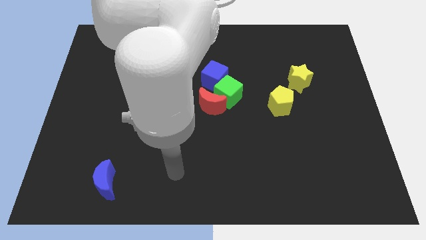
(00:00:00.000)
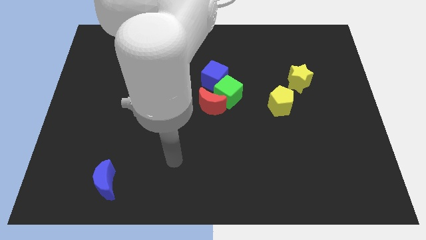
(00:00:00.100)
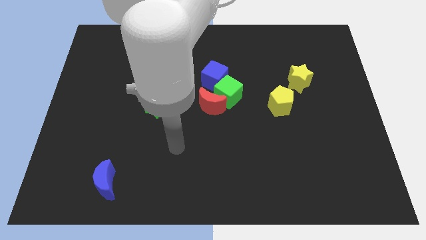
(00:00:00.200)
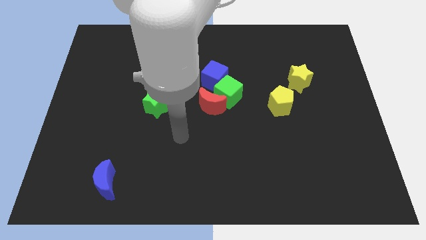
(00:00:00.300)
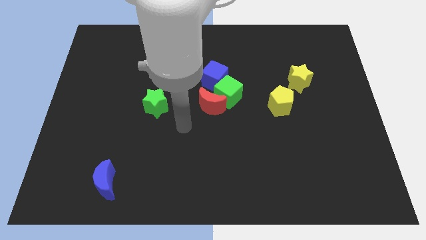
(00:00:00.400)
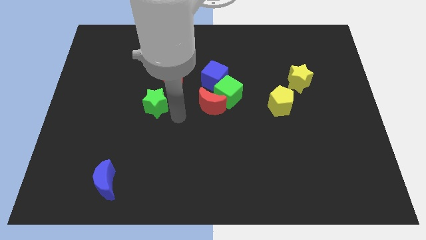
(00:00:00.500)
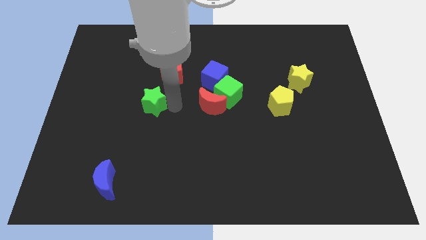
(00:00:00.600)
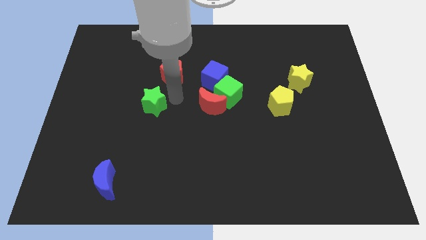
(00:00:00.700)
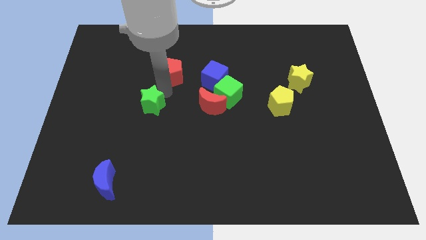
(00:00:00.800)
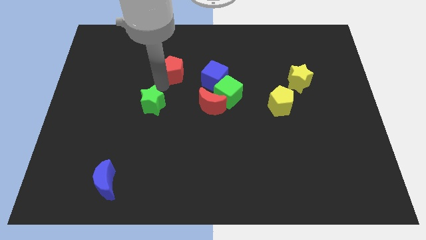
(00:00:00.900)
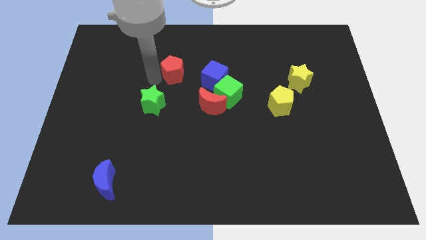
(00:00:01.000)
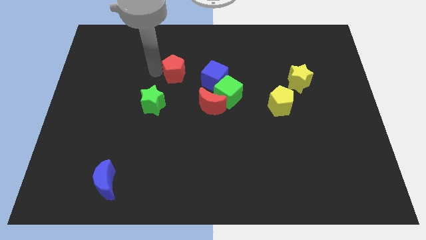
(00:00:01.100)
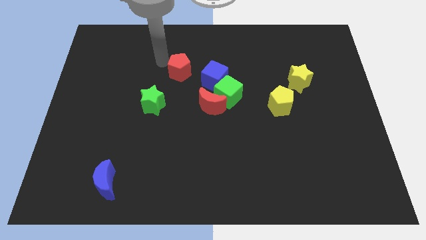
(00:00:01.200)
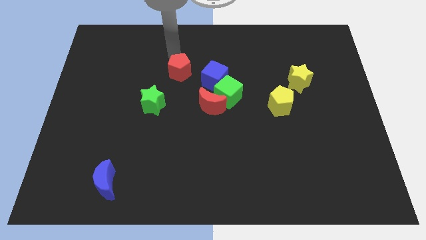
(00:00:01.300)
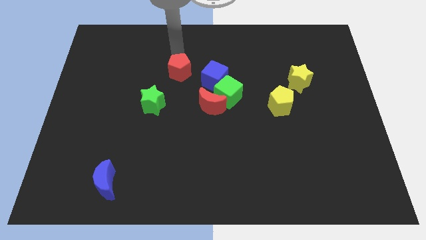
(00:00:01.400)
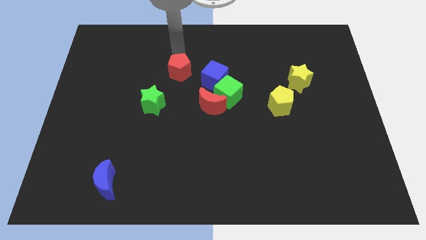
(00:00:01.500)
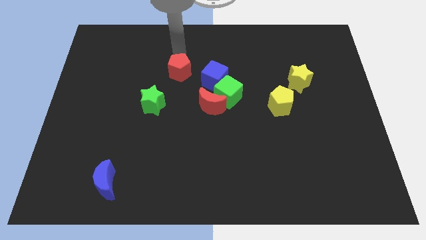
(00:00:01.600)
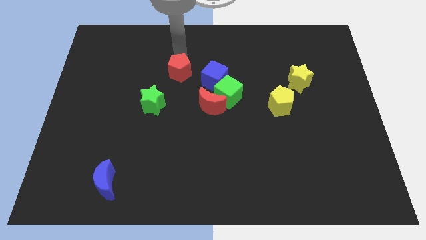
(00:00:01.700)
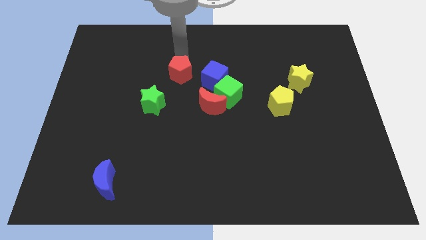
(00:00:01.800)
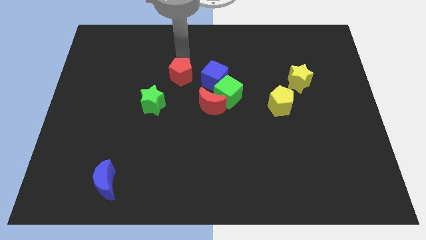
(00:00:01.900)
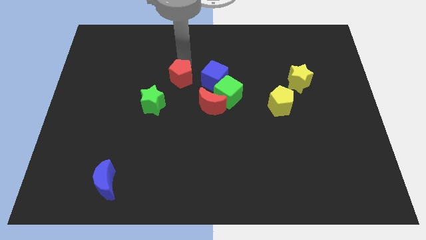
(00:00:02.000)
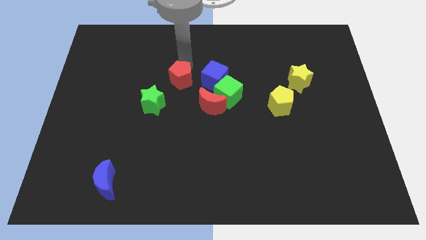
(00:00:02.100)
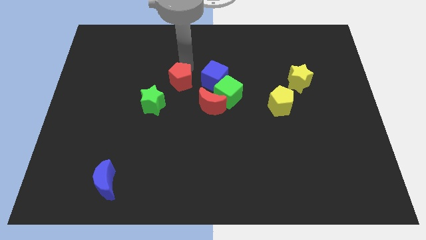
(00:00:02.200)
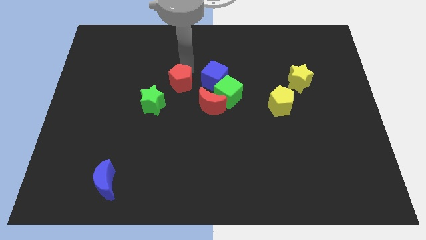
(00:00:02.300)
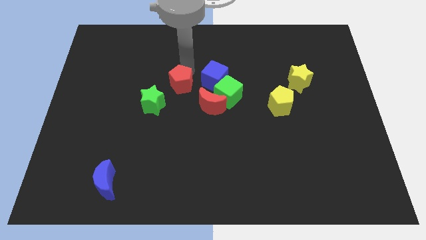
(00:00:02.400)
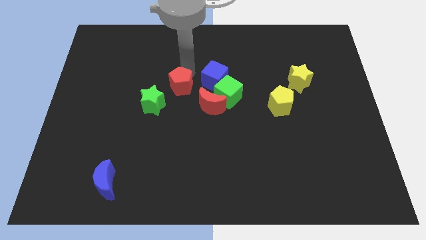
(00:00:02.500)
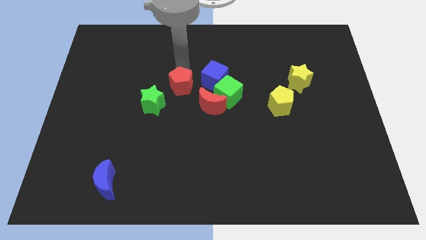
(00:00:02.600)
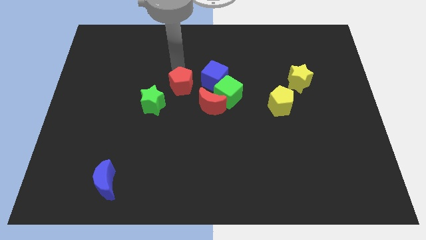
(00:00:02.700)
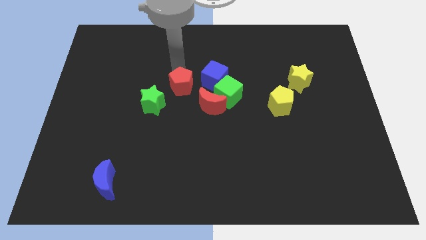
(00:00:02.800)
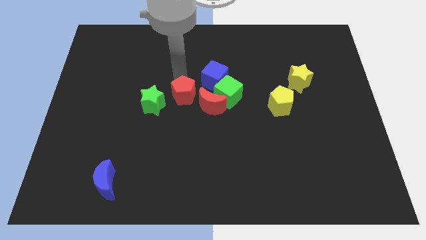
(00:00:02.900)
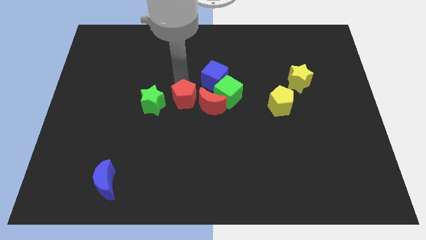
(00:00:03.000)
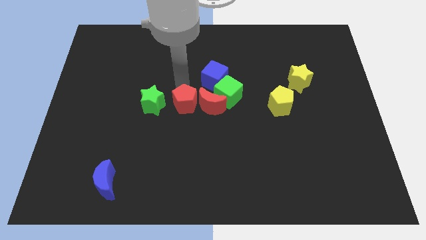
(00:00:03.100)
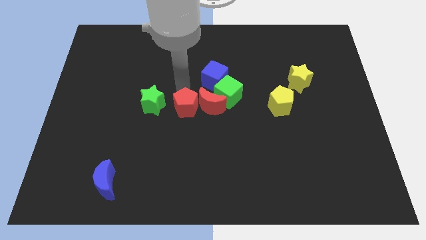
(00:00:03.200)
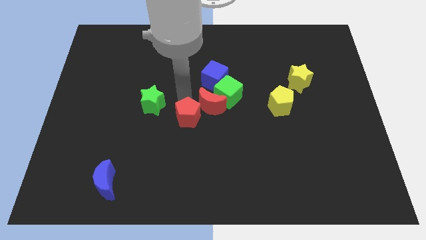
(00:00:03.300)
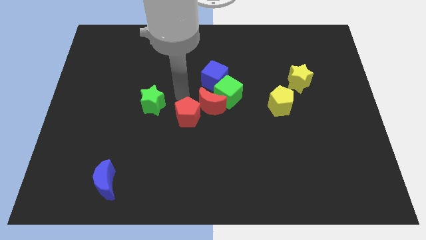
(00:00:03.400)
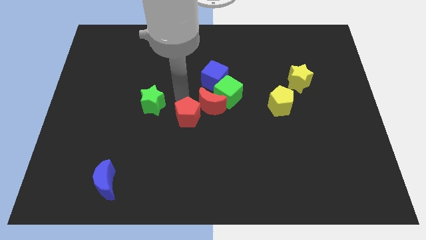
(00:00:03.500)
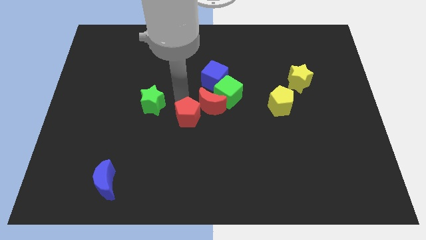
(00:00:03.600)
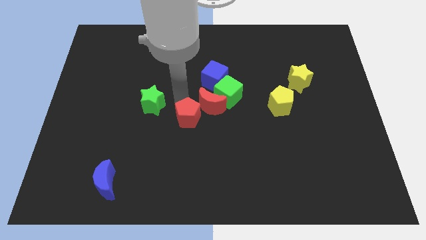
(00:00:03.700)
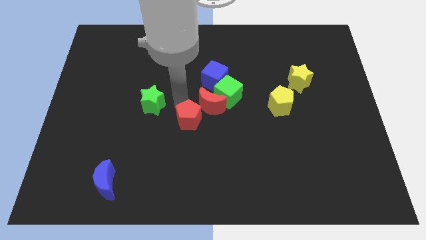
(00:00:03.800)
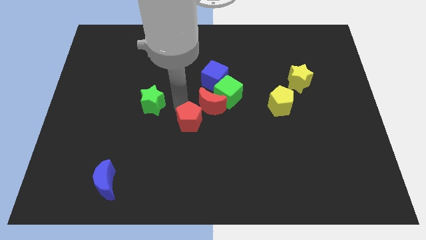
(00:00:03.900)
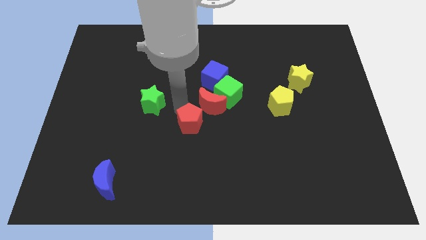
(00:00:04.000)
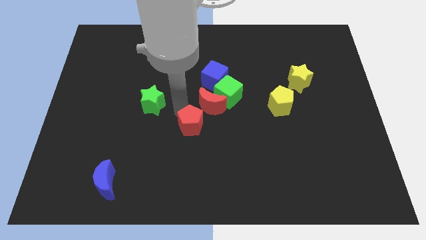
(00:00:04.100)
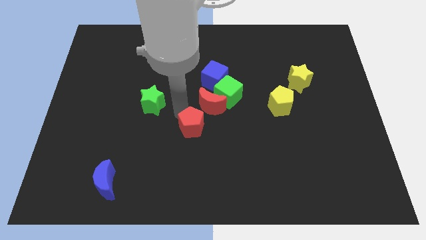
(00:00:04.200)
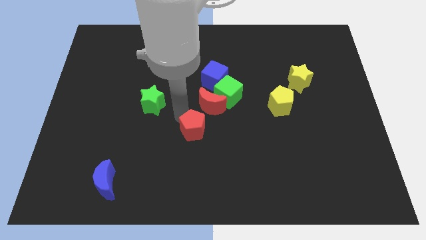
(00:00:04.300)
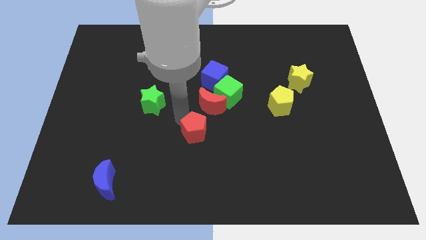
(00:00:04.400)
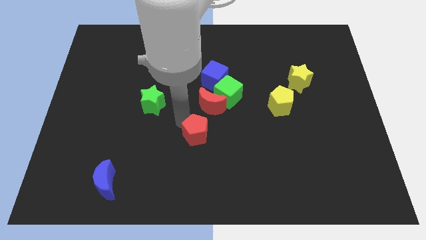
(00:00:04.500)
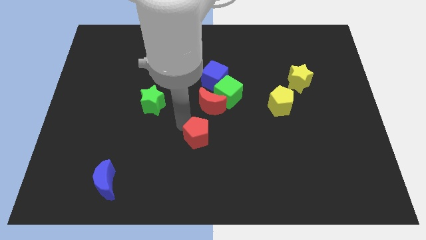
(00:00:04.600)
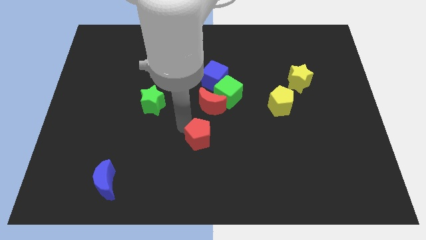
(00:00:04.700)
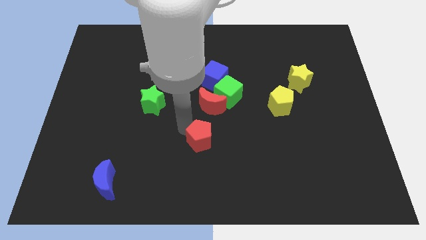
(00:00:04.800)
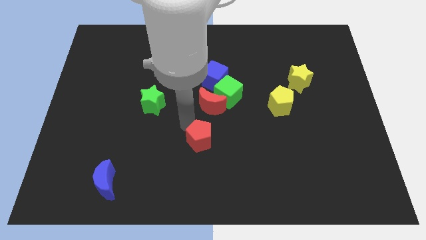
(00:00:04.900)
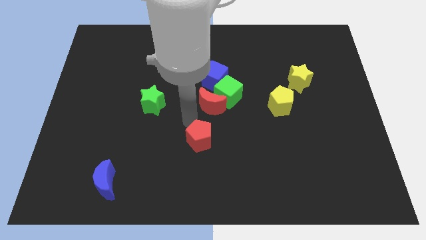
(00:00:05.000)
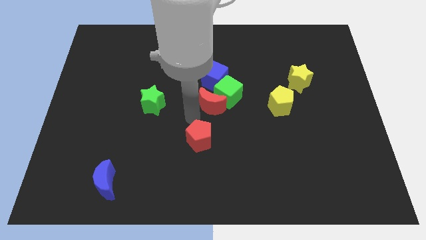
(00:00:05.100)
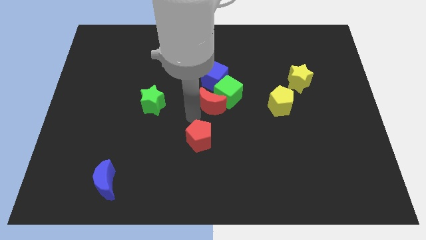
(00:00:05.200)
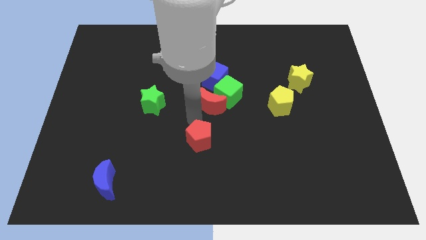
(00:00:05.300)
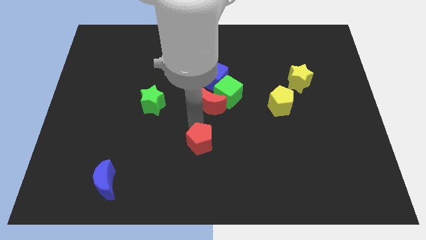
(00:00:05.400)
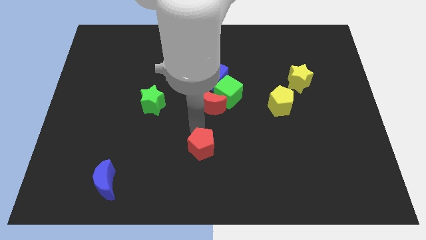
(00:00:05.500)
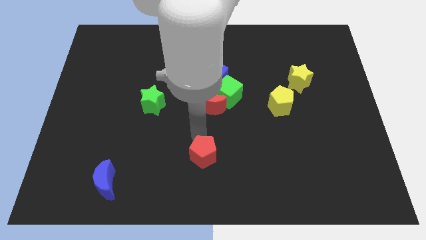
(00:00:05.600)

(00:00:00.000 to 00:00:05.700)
move the red pentagon to the bottom

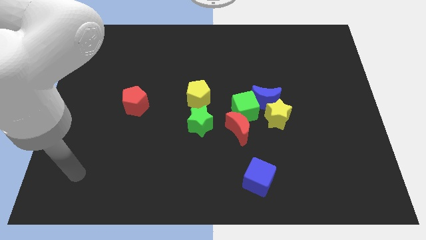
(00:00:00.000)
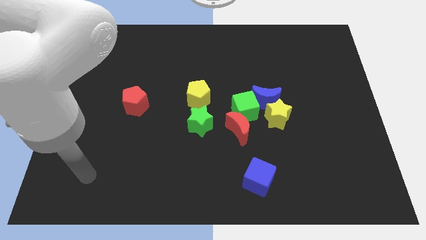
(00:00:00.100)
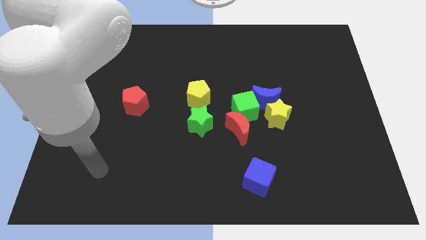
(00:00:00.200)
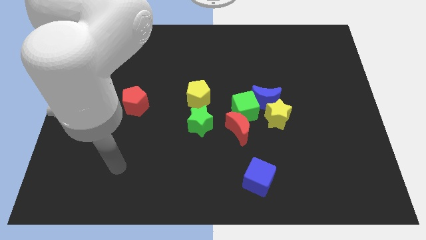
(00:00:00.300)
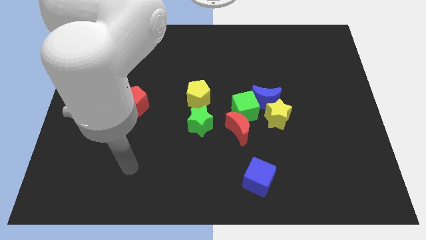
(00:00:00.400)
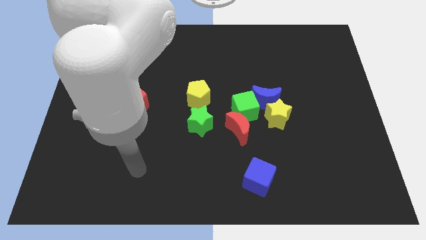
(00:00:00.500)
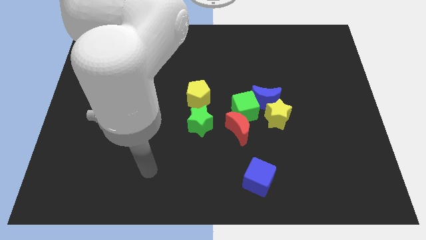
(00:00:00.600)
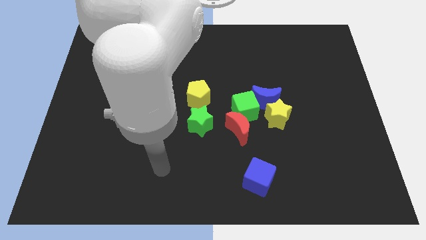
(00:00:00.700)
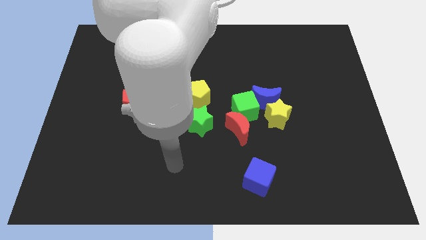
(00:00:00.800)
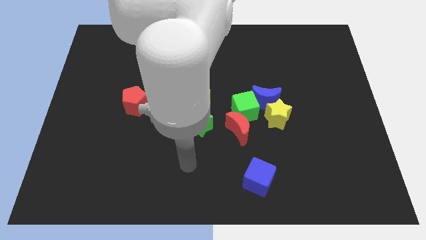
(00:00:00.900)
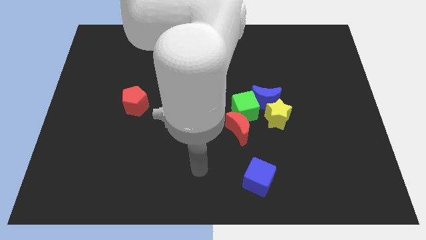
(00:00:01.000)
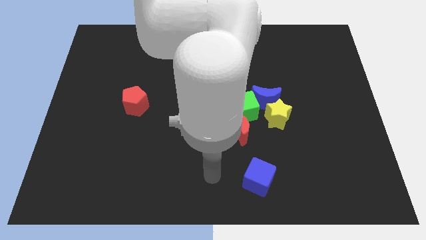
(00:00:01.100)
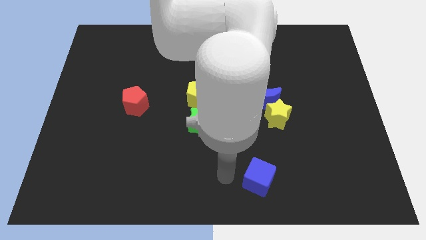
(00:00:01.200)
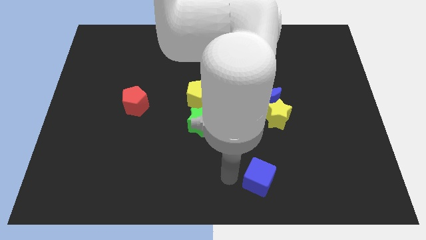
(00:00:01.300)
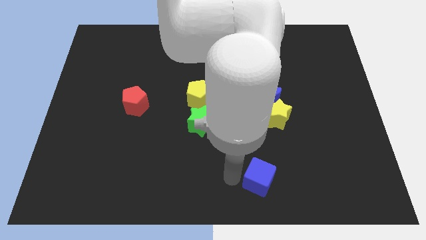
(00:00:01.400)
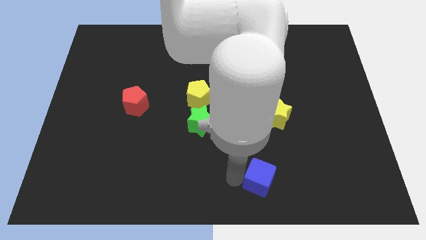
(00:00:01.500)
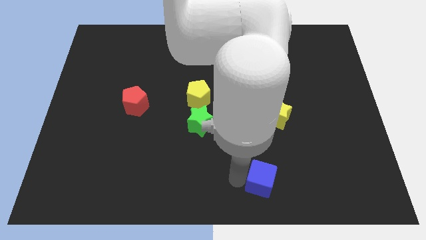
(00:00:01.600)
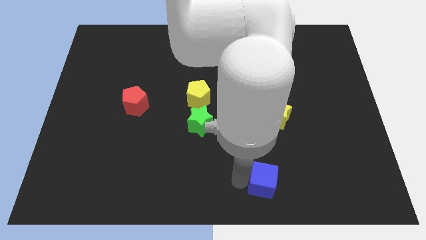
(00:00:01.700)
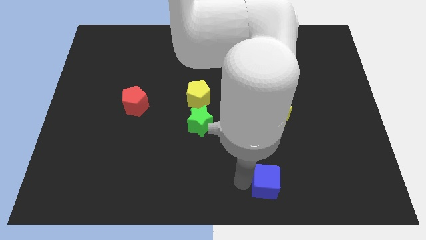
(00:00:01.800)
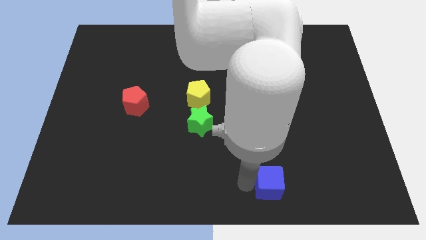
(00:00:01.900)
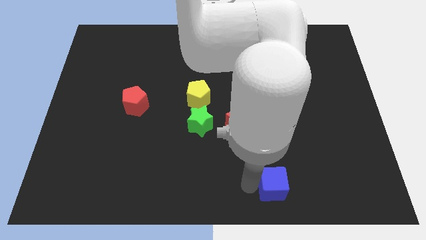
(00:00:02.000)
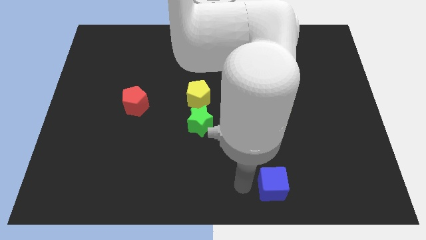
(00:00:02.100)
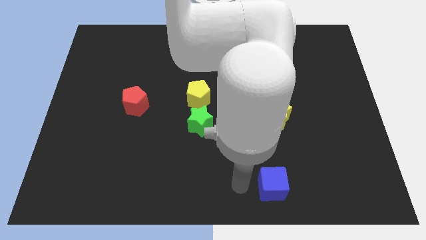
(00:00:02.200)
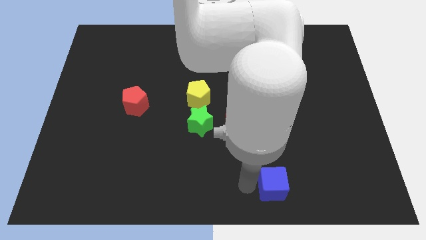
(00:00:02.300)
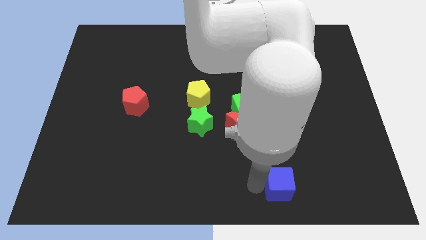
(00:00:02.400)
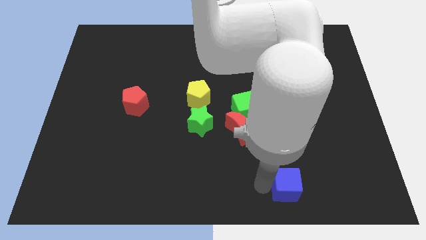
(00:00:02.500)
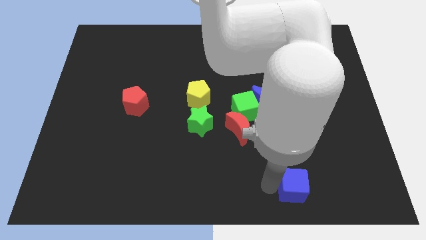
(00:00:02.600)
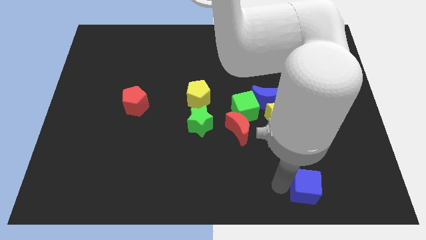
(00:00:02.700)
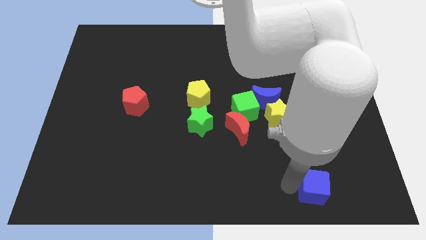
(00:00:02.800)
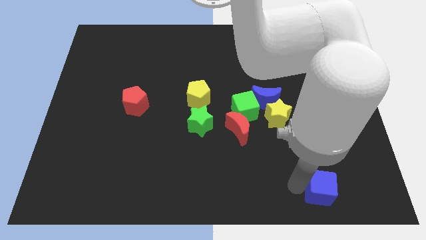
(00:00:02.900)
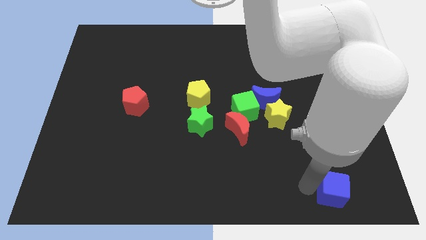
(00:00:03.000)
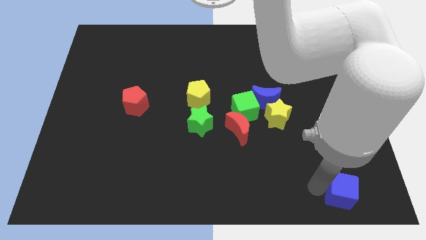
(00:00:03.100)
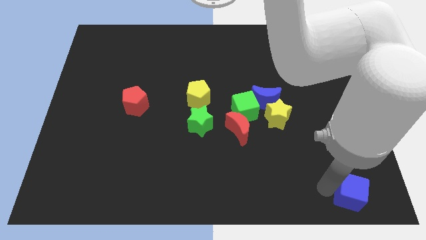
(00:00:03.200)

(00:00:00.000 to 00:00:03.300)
move the blue cube to the lower right corner
